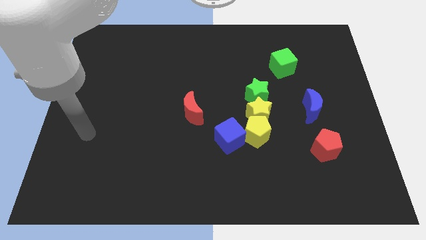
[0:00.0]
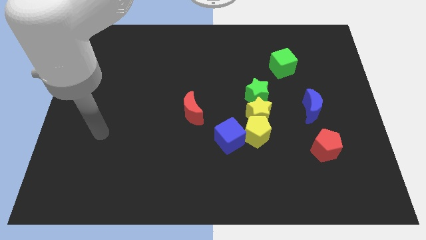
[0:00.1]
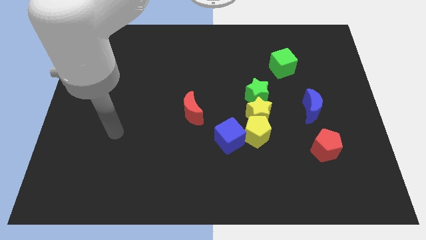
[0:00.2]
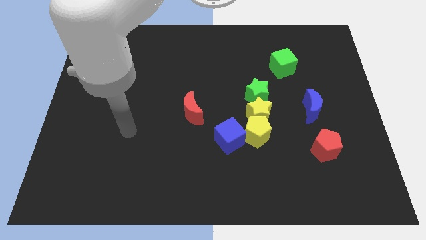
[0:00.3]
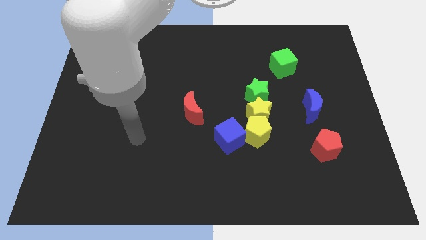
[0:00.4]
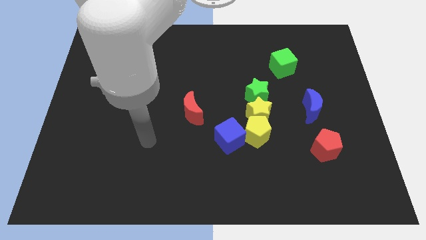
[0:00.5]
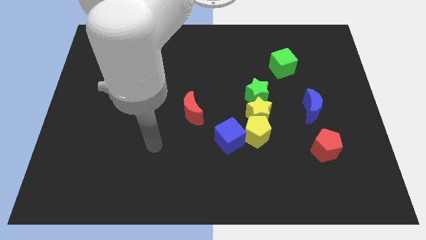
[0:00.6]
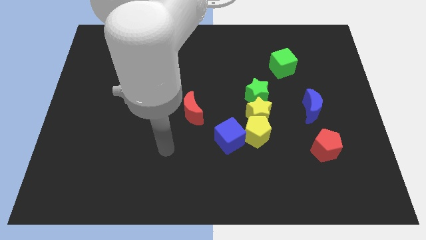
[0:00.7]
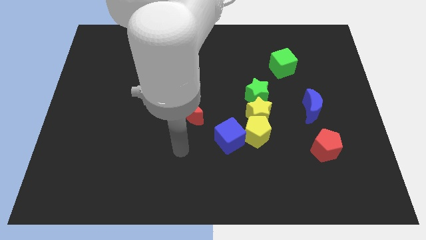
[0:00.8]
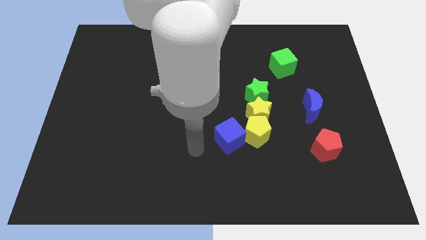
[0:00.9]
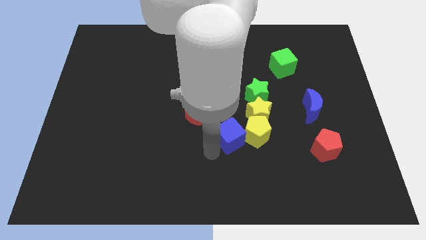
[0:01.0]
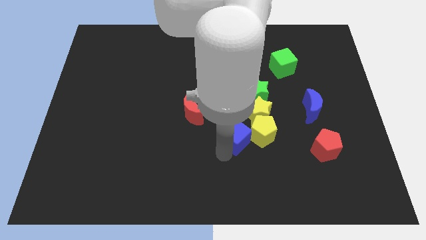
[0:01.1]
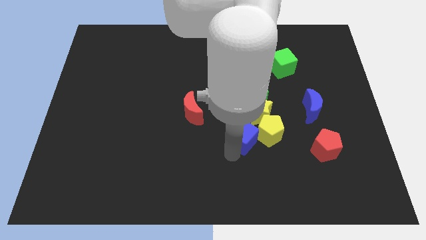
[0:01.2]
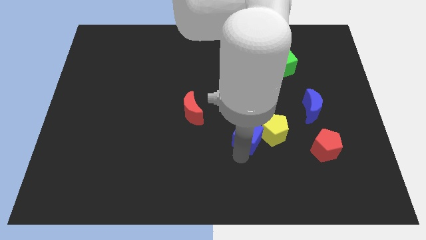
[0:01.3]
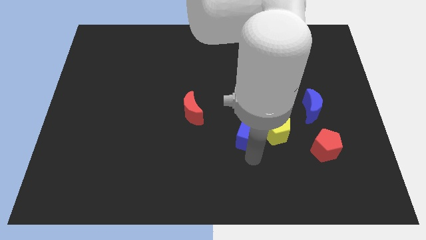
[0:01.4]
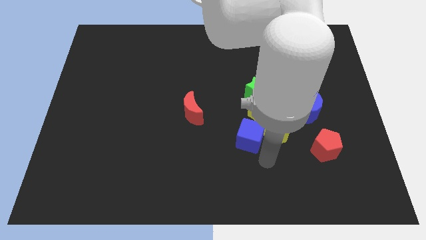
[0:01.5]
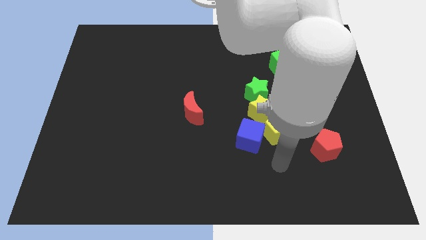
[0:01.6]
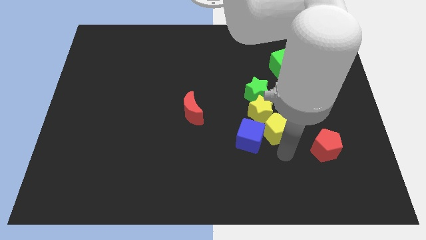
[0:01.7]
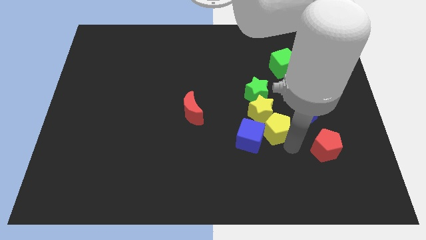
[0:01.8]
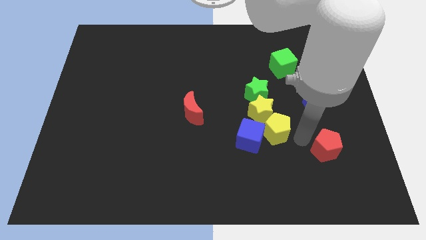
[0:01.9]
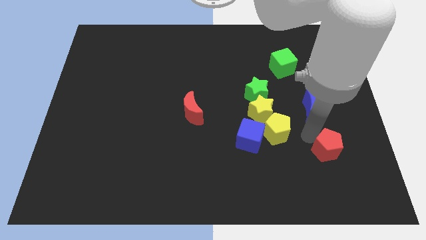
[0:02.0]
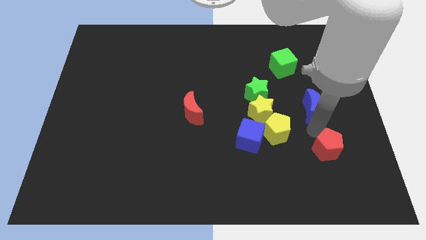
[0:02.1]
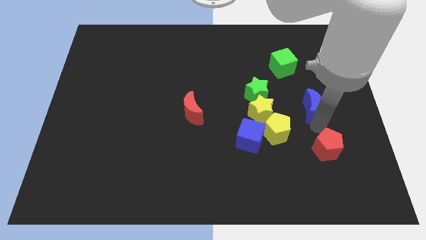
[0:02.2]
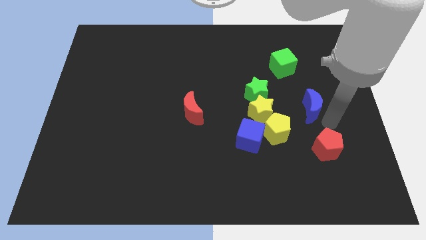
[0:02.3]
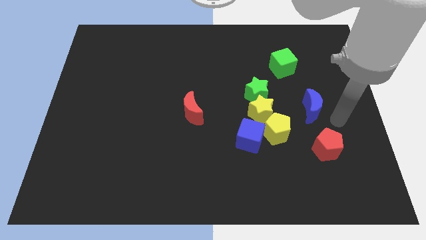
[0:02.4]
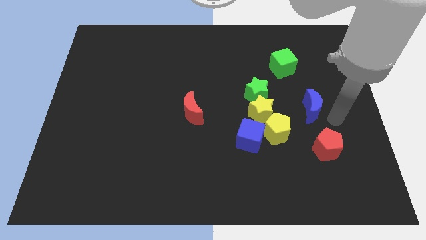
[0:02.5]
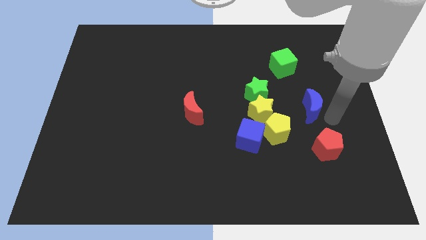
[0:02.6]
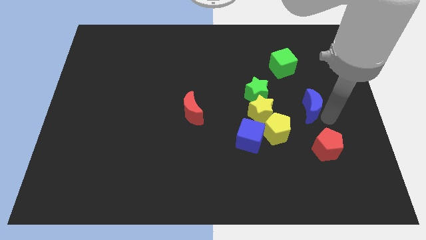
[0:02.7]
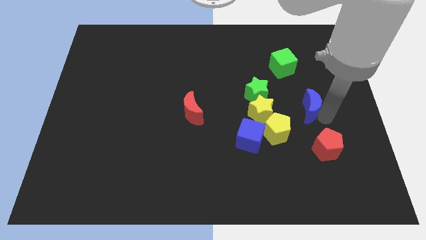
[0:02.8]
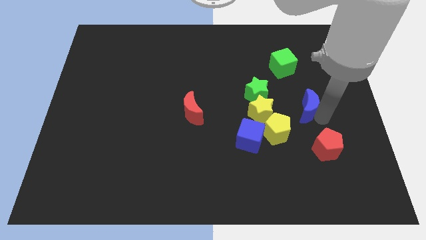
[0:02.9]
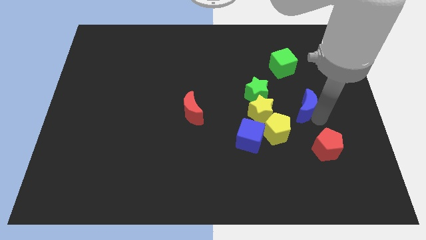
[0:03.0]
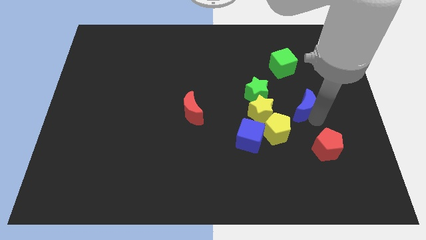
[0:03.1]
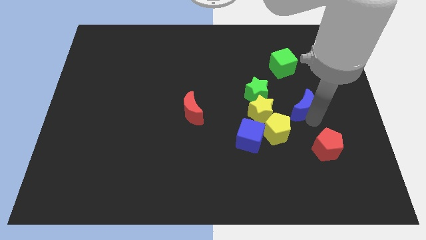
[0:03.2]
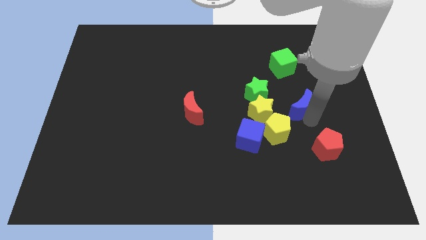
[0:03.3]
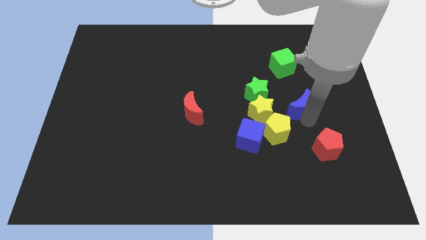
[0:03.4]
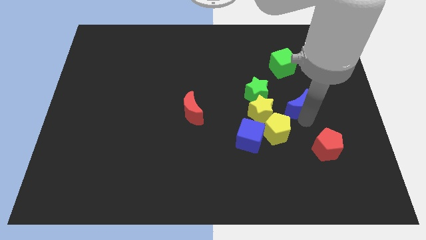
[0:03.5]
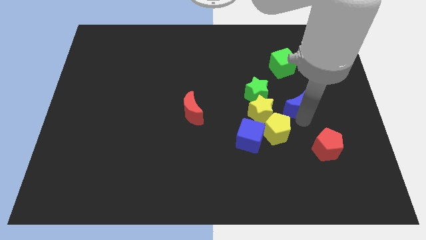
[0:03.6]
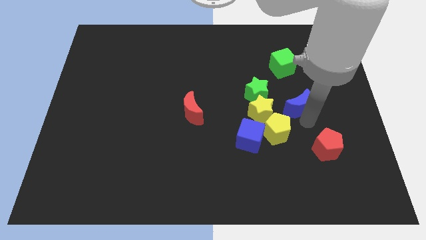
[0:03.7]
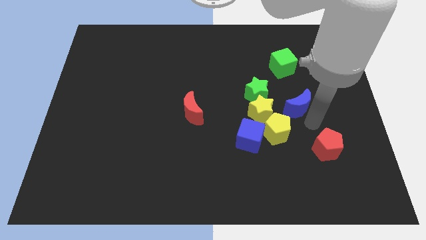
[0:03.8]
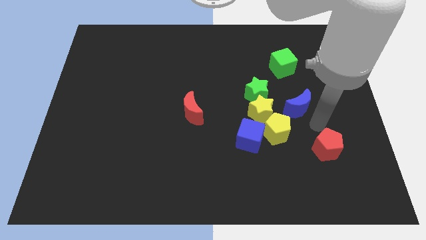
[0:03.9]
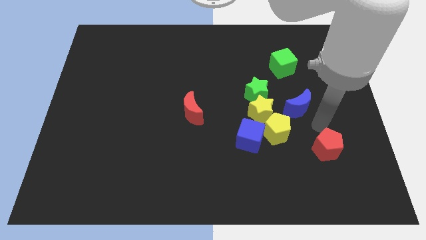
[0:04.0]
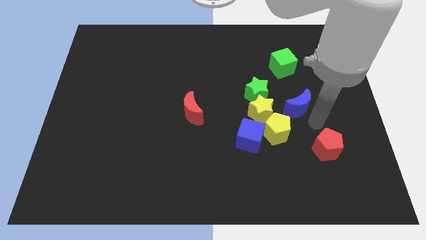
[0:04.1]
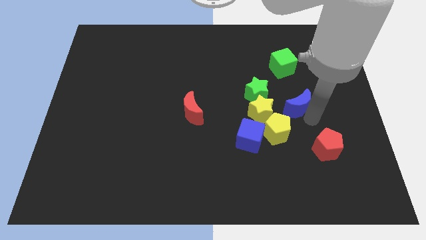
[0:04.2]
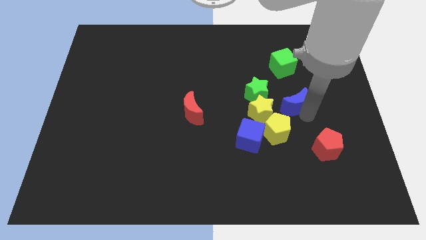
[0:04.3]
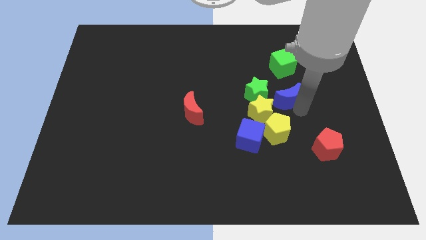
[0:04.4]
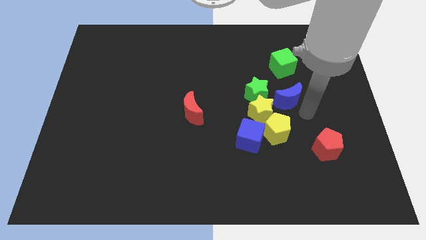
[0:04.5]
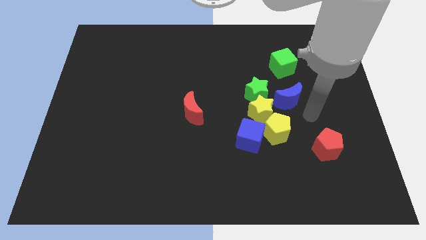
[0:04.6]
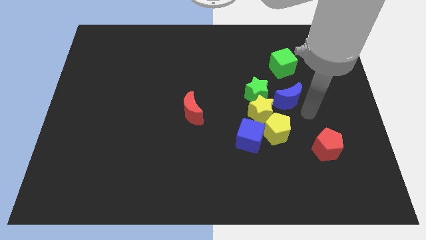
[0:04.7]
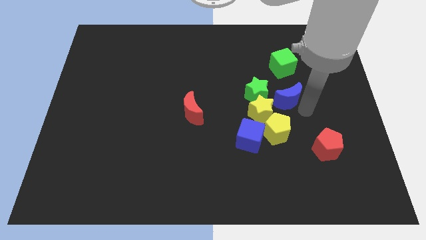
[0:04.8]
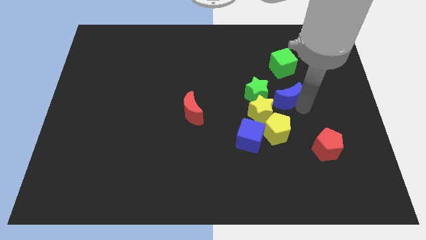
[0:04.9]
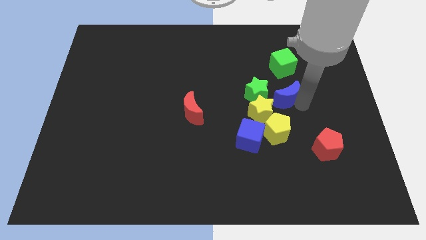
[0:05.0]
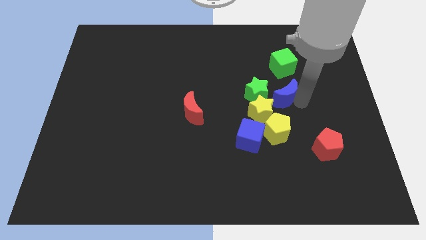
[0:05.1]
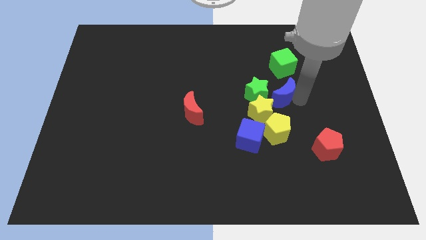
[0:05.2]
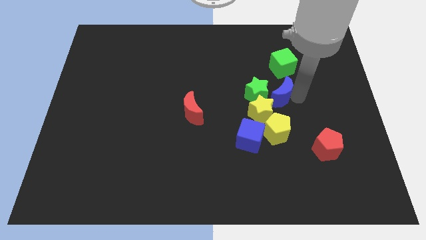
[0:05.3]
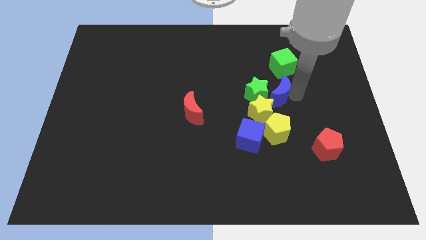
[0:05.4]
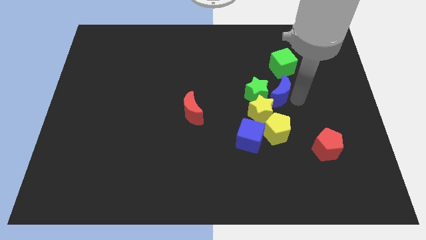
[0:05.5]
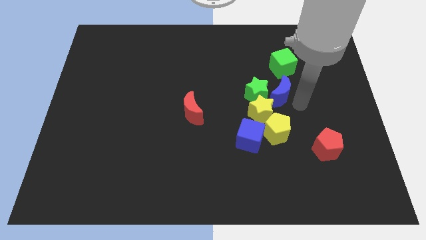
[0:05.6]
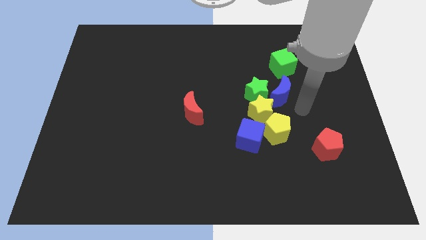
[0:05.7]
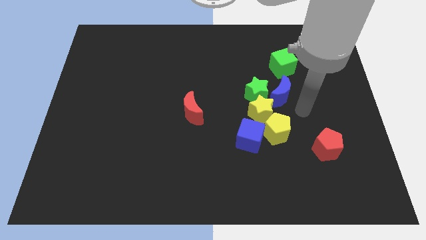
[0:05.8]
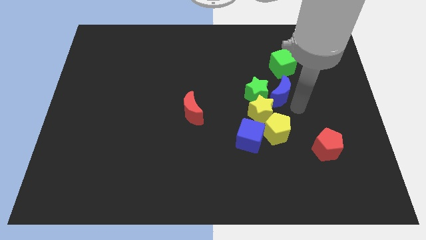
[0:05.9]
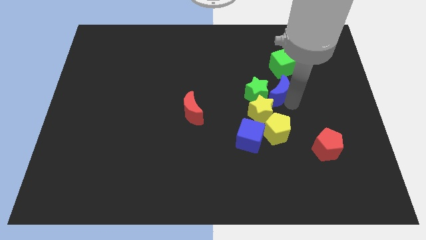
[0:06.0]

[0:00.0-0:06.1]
put the blue moon to the top of the yellow star
